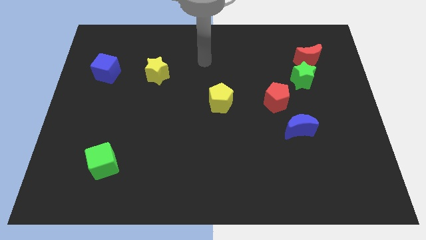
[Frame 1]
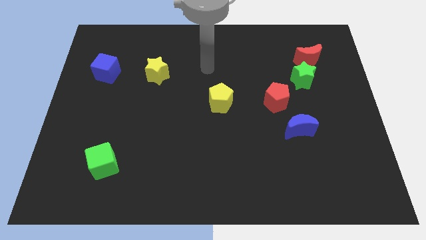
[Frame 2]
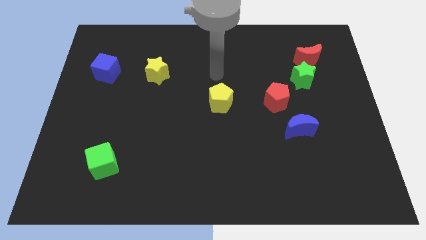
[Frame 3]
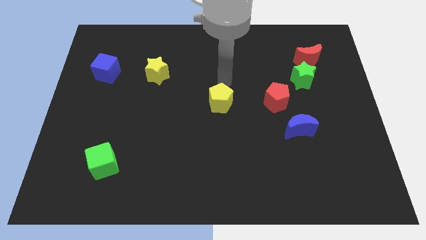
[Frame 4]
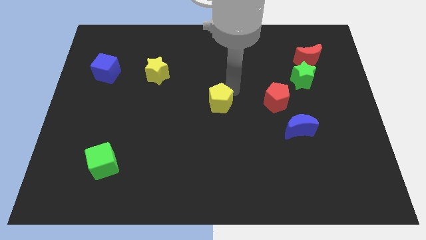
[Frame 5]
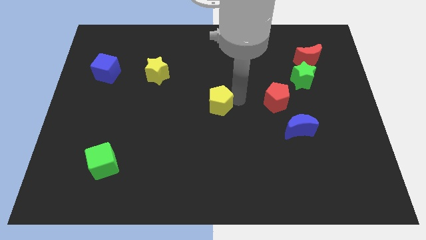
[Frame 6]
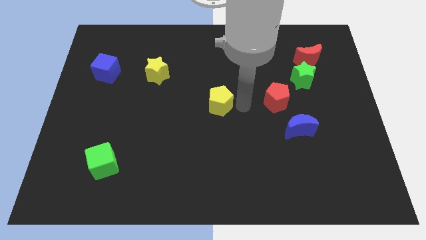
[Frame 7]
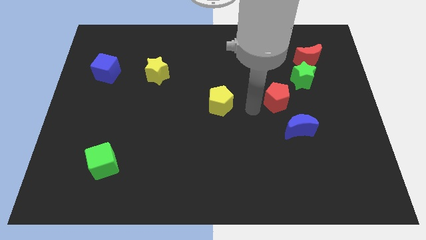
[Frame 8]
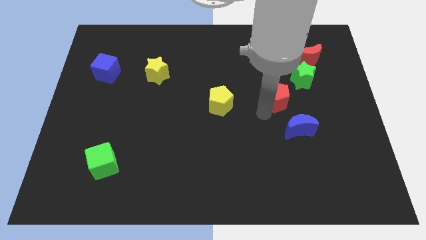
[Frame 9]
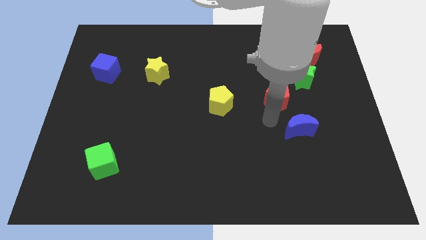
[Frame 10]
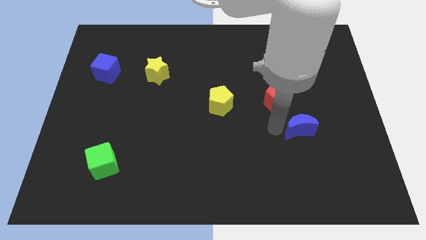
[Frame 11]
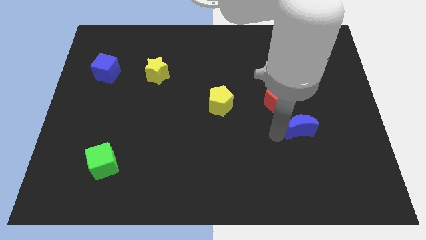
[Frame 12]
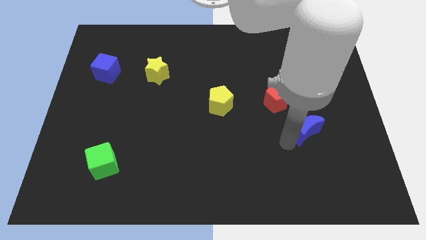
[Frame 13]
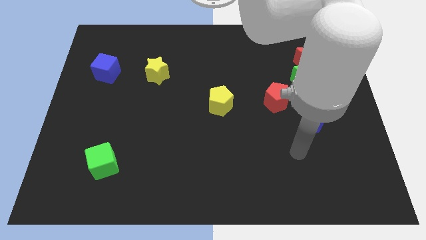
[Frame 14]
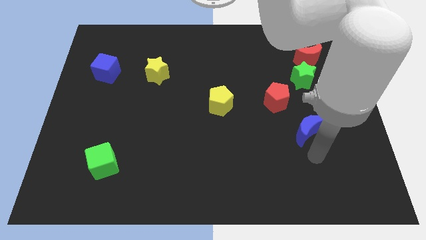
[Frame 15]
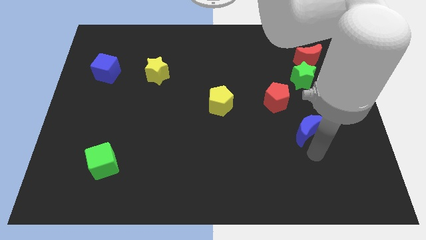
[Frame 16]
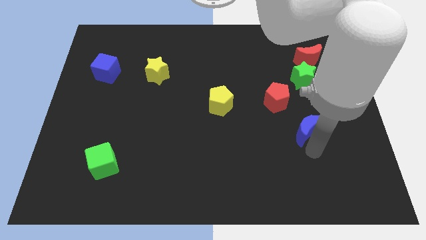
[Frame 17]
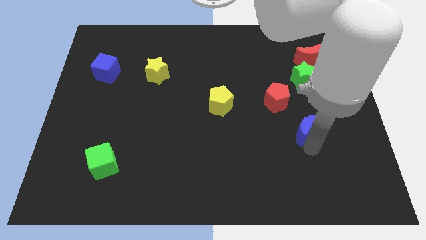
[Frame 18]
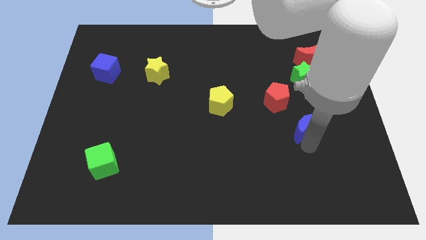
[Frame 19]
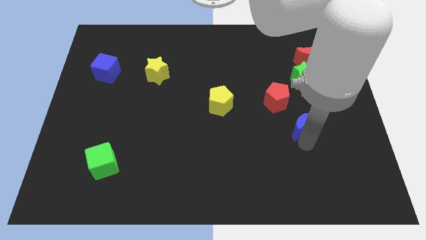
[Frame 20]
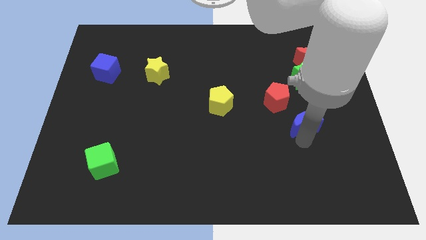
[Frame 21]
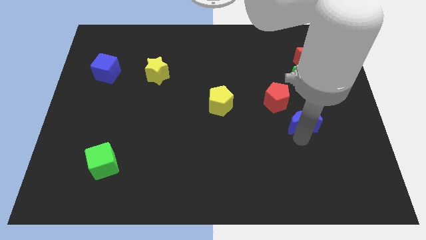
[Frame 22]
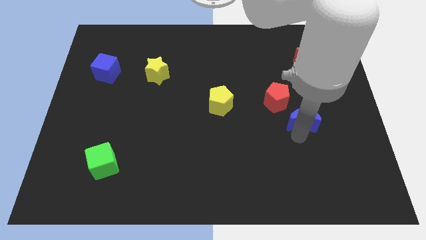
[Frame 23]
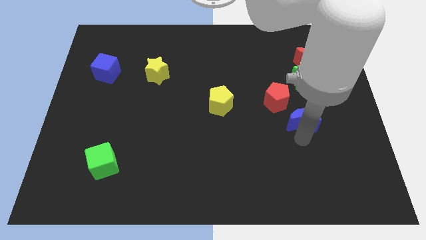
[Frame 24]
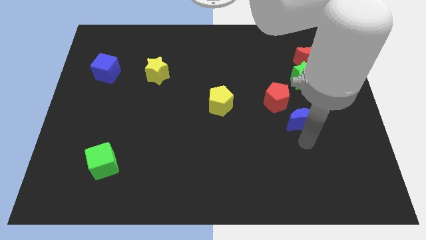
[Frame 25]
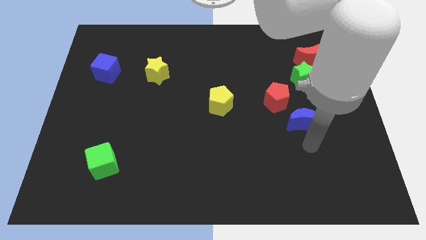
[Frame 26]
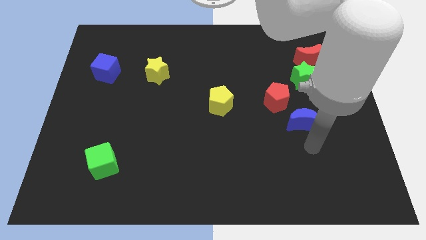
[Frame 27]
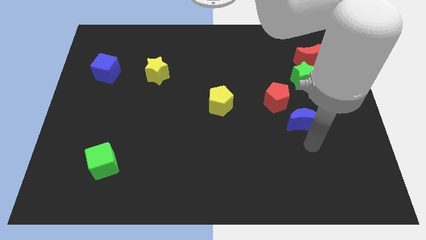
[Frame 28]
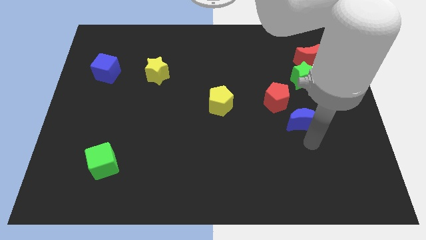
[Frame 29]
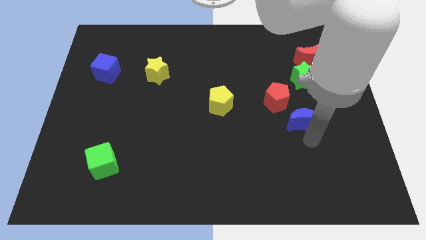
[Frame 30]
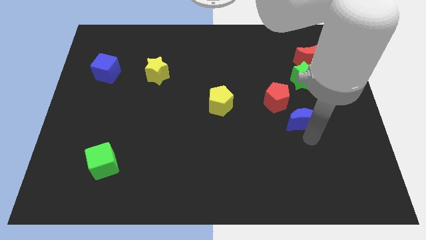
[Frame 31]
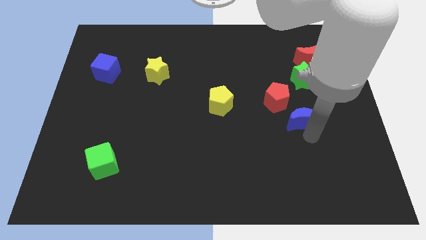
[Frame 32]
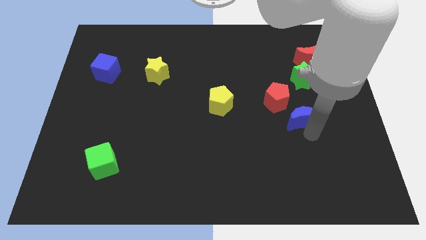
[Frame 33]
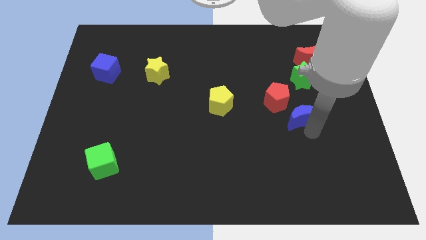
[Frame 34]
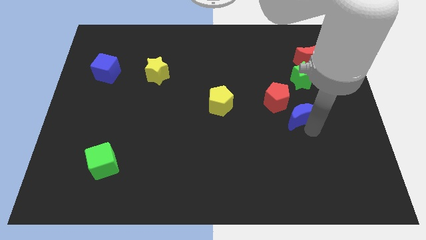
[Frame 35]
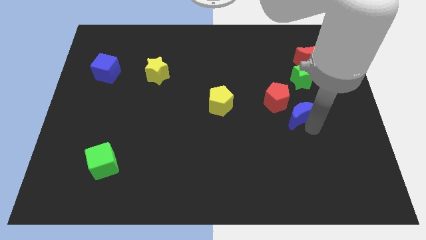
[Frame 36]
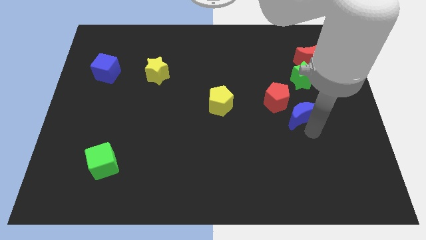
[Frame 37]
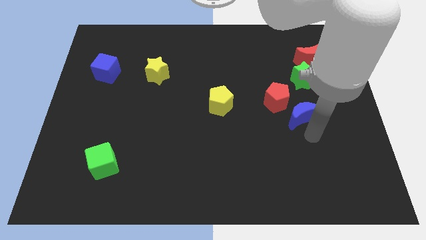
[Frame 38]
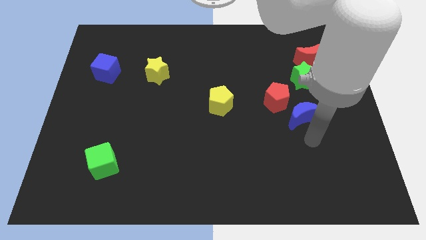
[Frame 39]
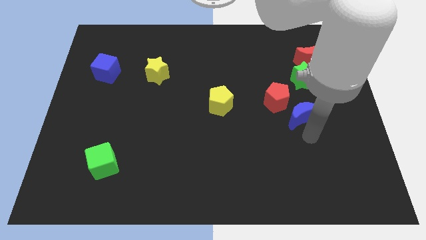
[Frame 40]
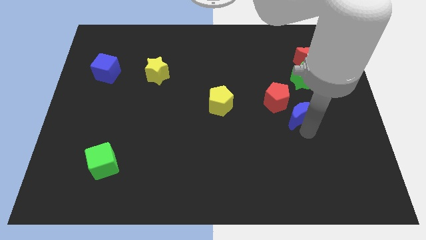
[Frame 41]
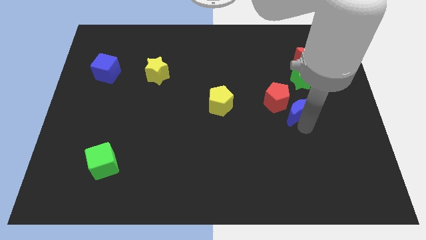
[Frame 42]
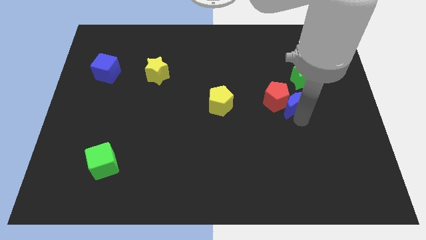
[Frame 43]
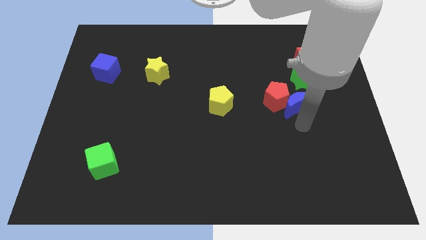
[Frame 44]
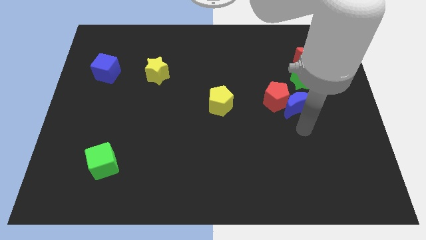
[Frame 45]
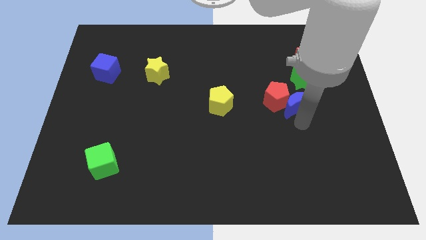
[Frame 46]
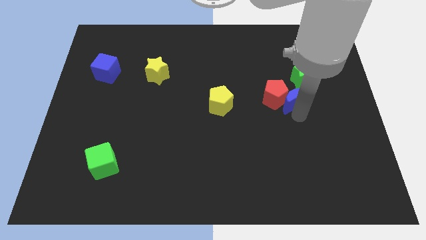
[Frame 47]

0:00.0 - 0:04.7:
slide the blue moon a bit upwards

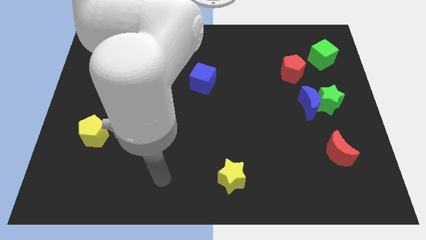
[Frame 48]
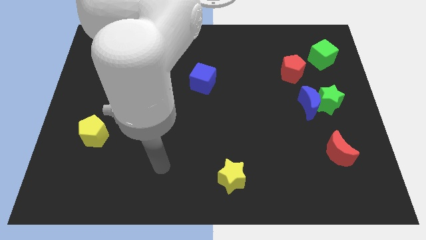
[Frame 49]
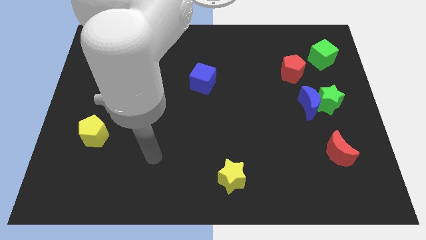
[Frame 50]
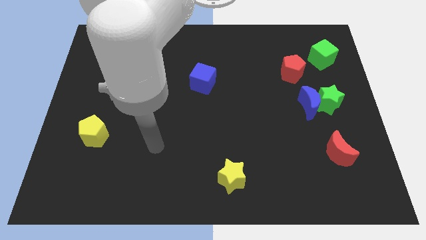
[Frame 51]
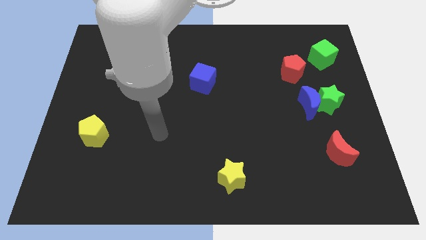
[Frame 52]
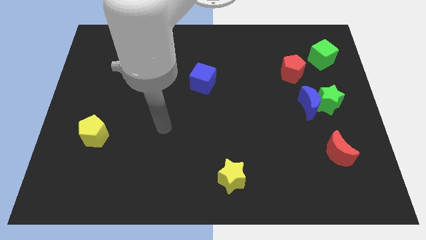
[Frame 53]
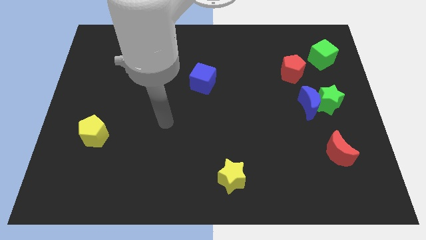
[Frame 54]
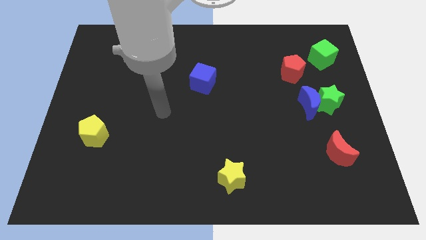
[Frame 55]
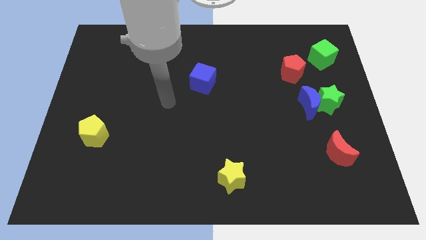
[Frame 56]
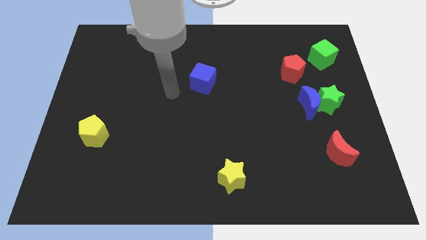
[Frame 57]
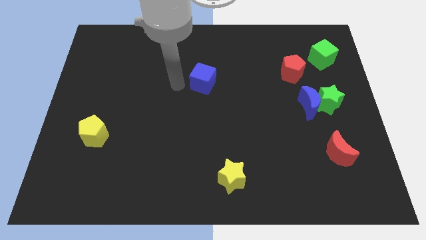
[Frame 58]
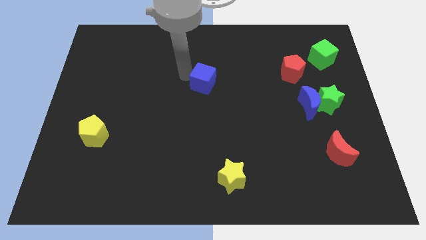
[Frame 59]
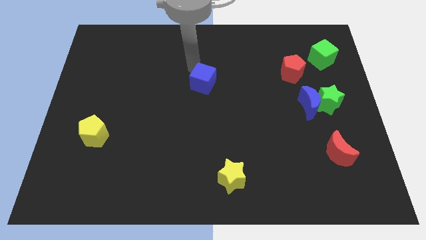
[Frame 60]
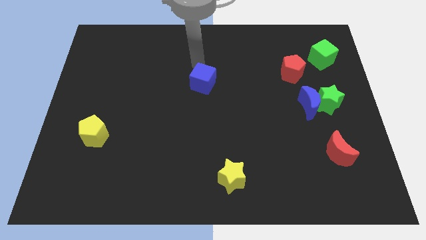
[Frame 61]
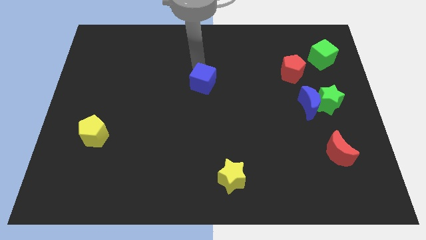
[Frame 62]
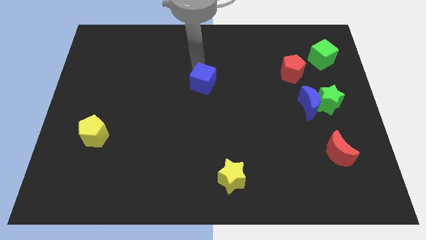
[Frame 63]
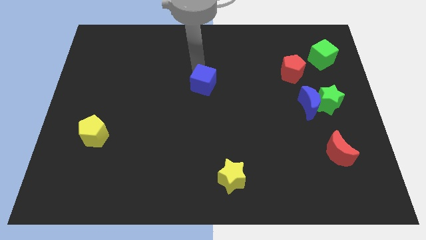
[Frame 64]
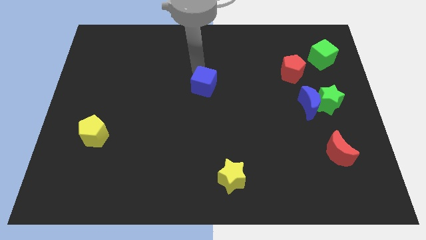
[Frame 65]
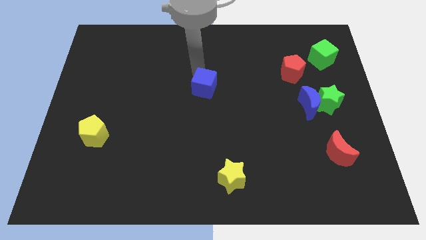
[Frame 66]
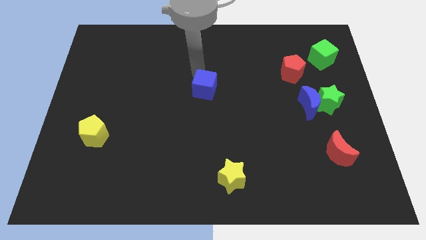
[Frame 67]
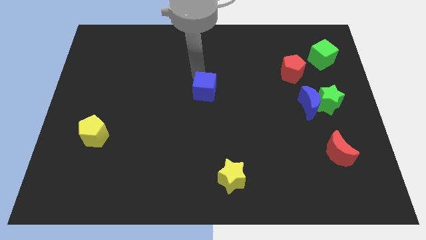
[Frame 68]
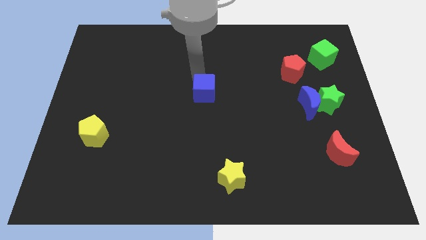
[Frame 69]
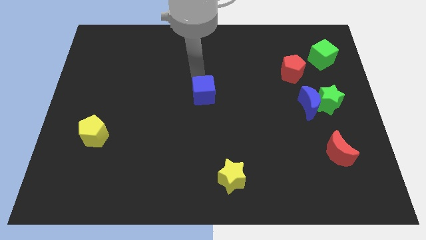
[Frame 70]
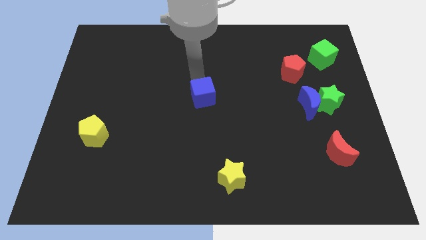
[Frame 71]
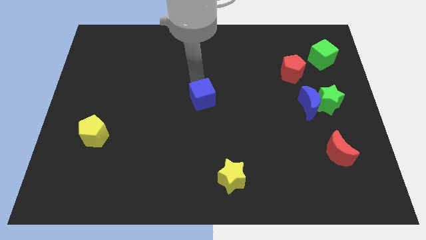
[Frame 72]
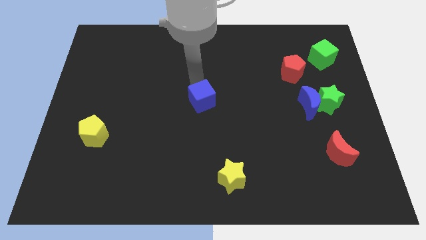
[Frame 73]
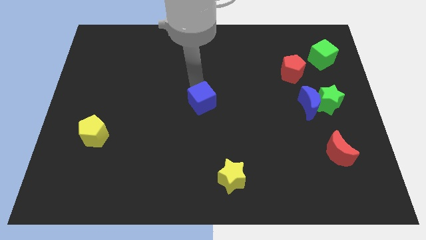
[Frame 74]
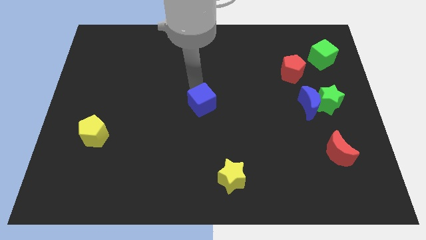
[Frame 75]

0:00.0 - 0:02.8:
move the blue cube somewhat down

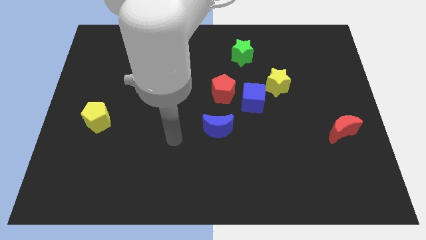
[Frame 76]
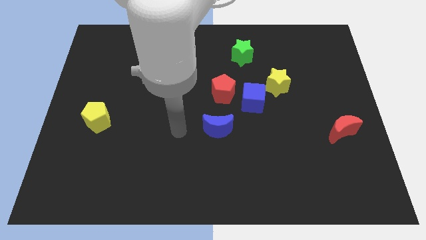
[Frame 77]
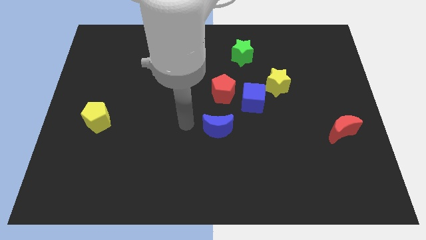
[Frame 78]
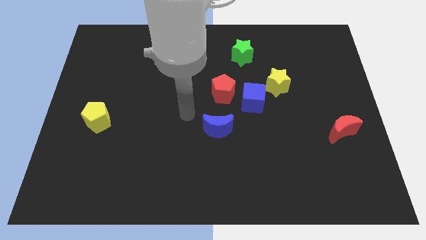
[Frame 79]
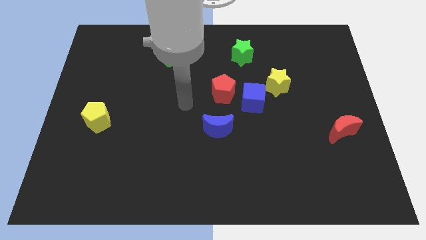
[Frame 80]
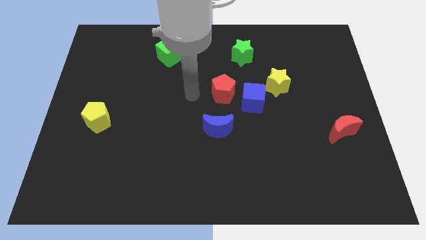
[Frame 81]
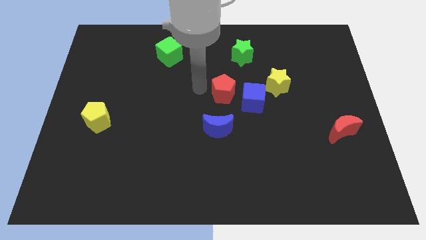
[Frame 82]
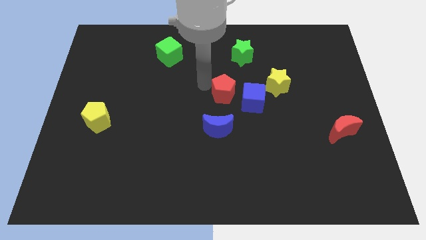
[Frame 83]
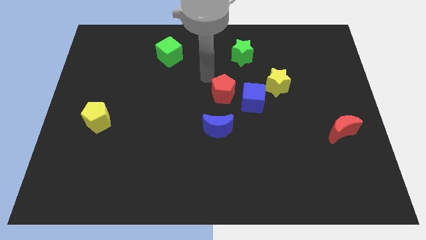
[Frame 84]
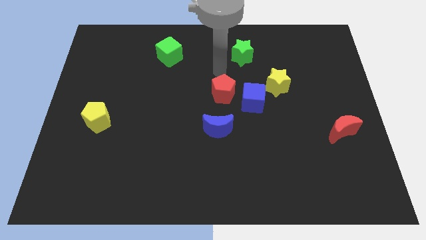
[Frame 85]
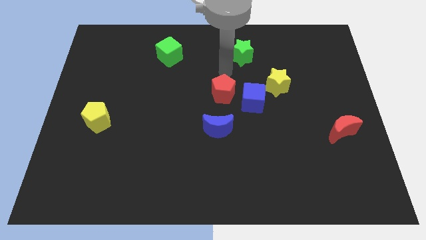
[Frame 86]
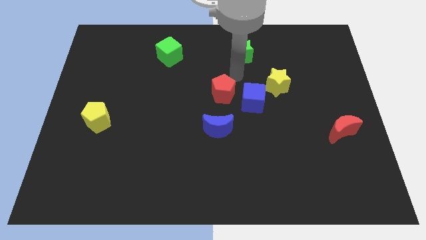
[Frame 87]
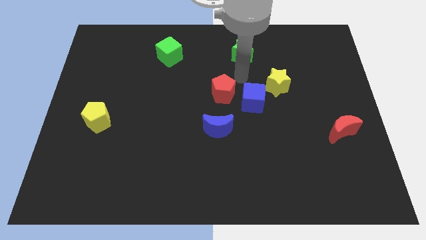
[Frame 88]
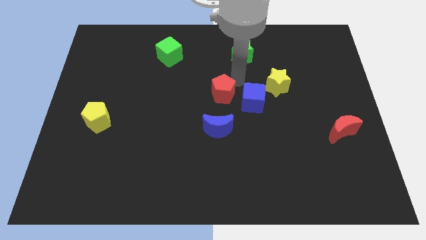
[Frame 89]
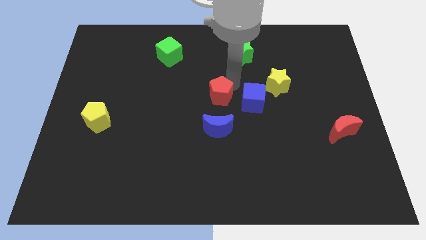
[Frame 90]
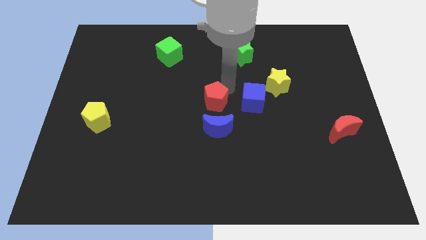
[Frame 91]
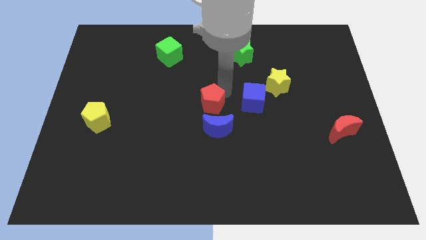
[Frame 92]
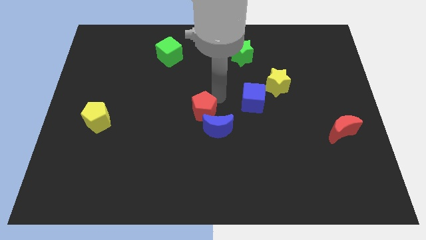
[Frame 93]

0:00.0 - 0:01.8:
move the red pentagon down and to the left diagonally a little bit
